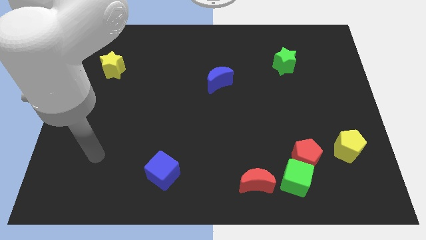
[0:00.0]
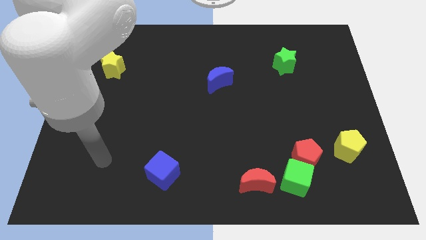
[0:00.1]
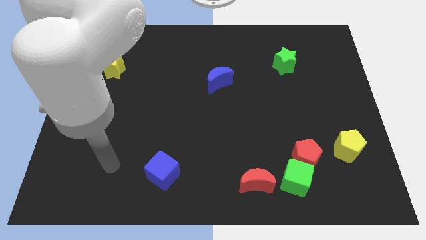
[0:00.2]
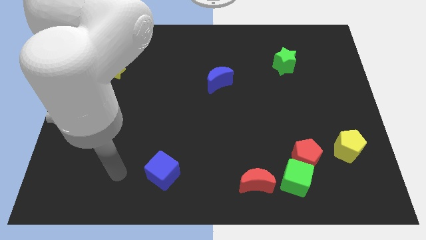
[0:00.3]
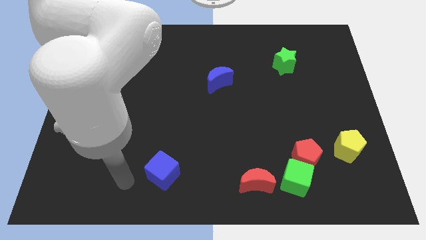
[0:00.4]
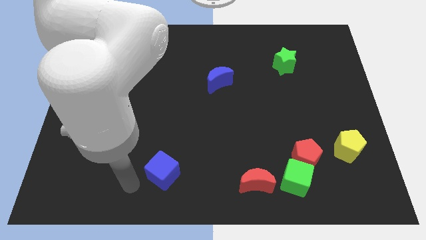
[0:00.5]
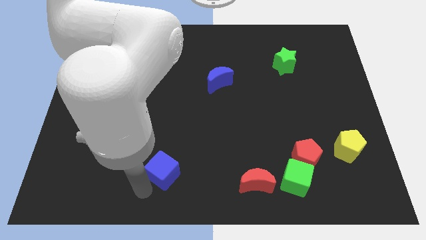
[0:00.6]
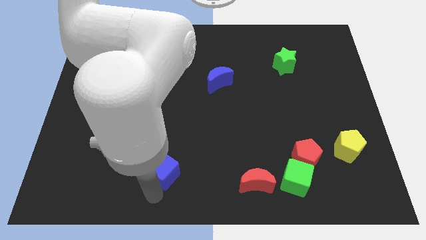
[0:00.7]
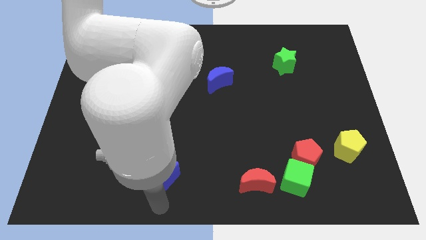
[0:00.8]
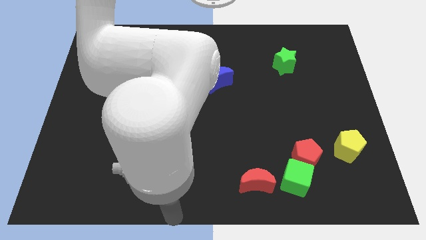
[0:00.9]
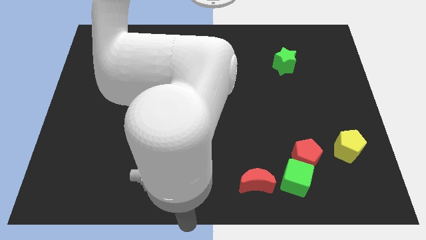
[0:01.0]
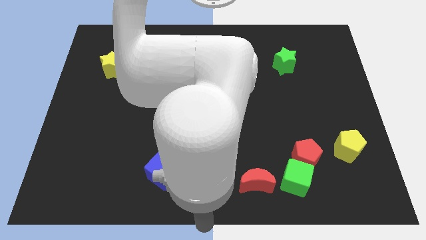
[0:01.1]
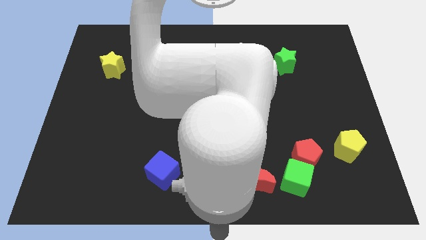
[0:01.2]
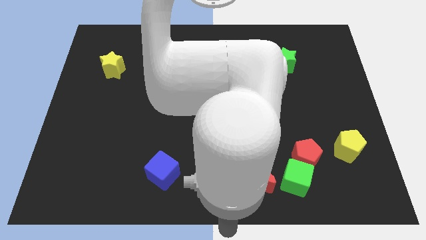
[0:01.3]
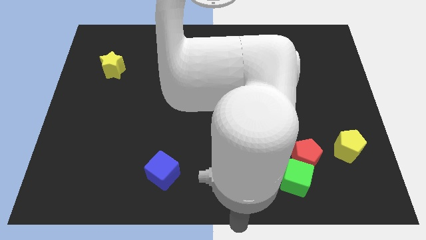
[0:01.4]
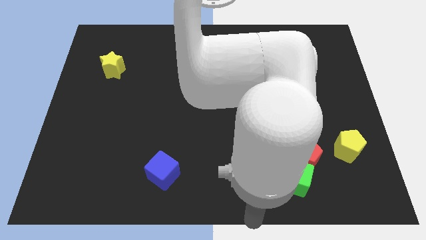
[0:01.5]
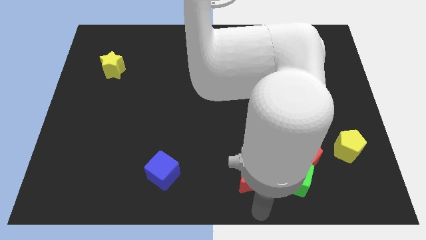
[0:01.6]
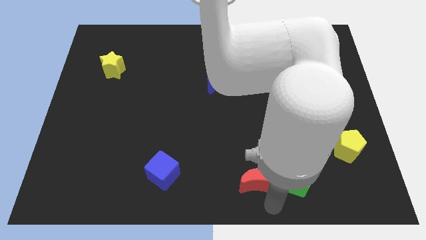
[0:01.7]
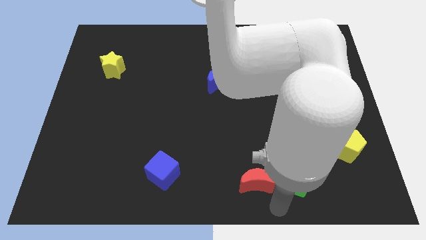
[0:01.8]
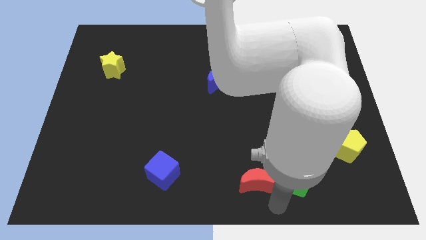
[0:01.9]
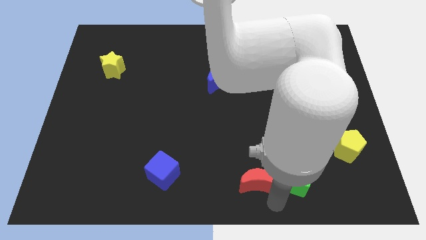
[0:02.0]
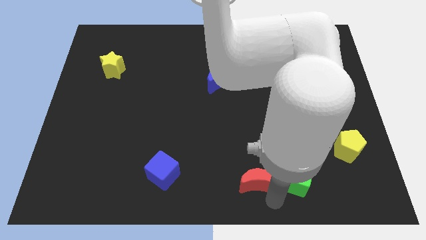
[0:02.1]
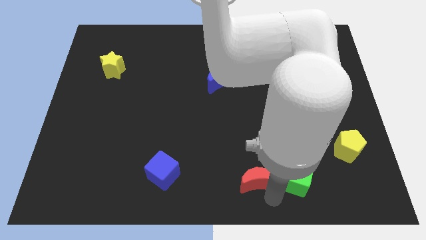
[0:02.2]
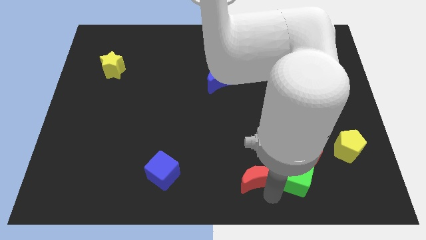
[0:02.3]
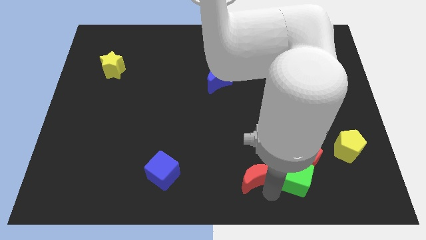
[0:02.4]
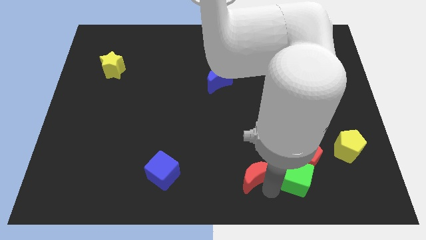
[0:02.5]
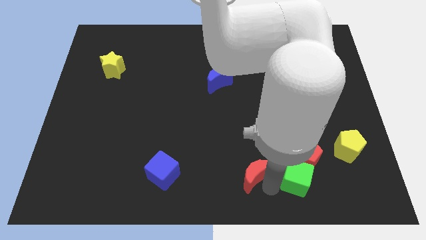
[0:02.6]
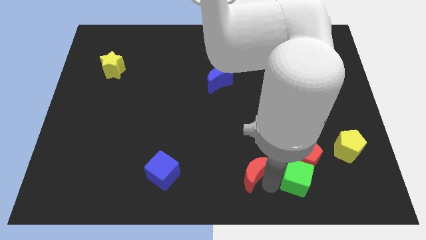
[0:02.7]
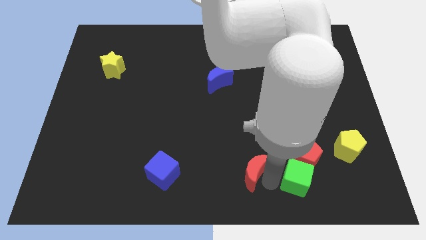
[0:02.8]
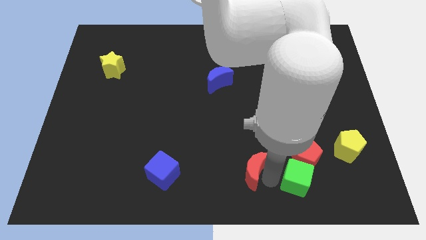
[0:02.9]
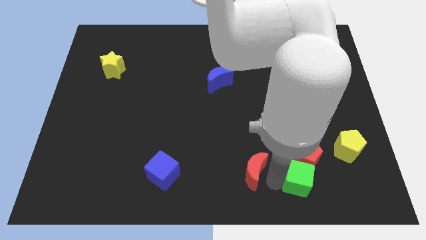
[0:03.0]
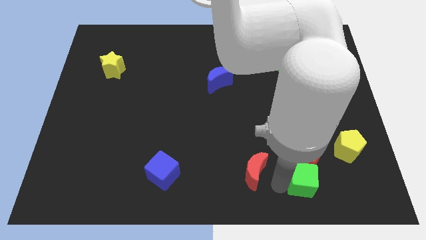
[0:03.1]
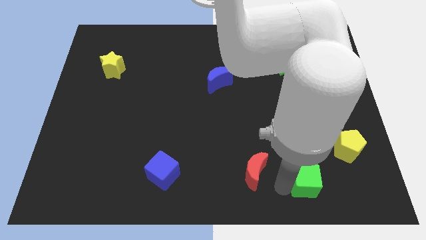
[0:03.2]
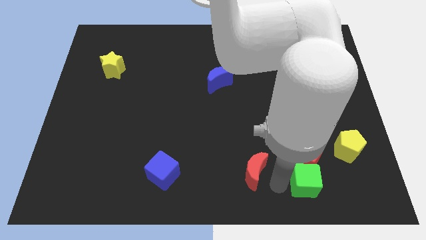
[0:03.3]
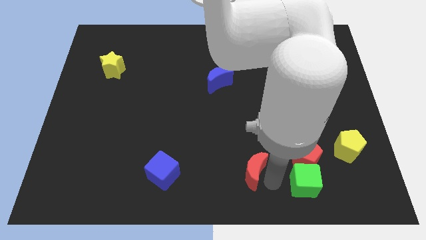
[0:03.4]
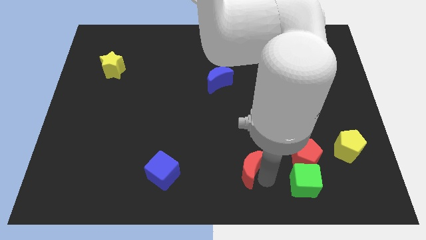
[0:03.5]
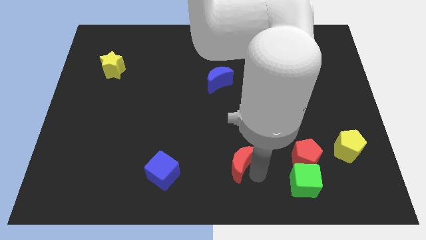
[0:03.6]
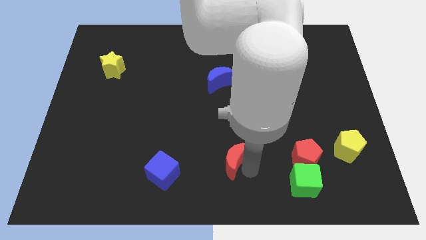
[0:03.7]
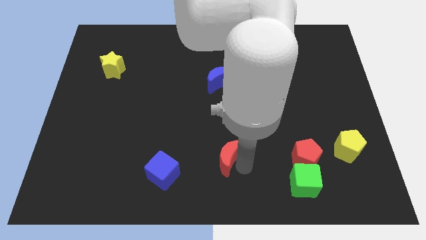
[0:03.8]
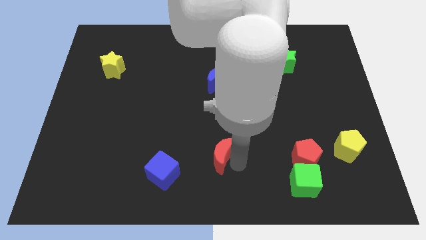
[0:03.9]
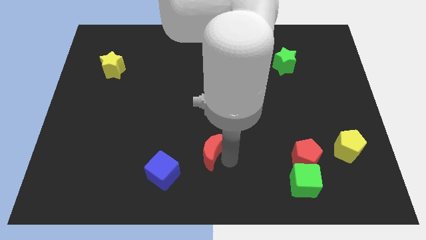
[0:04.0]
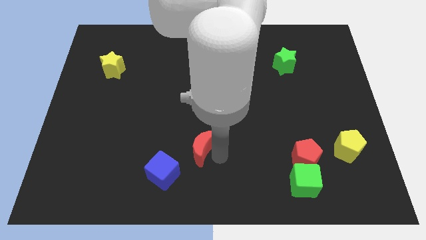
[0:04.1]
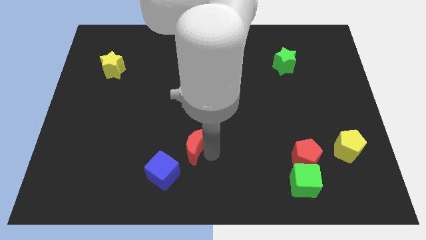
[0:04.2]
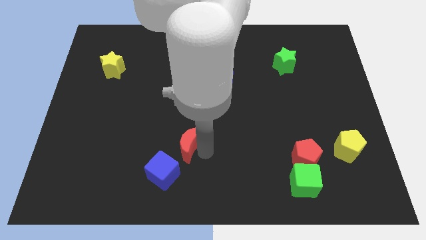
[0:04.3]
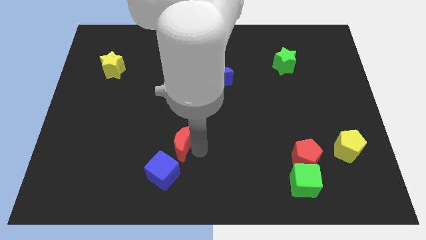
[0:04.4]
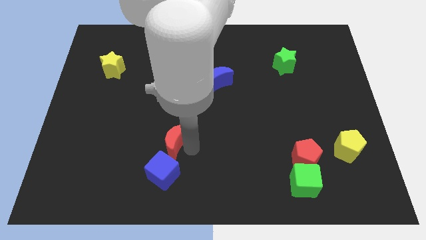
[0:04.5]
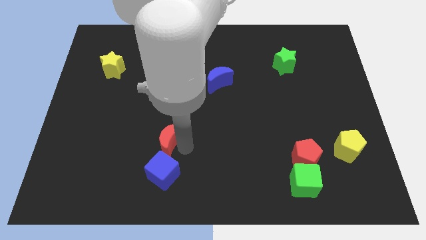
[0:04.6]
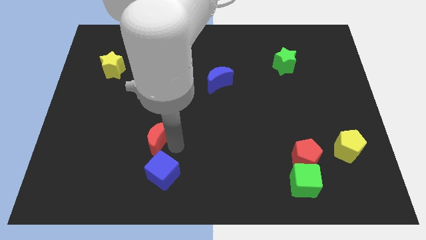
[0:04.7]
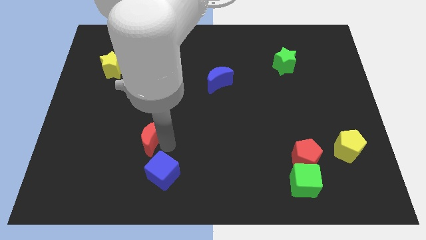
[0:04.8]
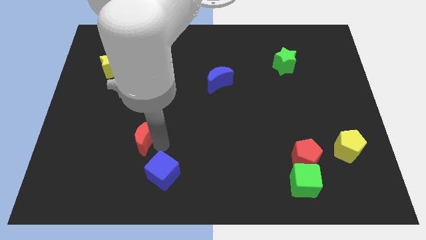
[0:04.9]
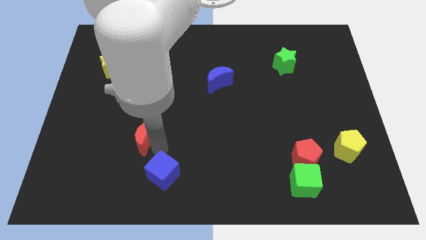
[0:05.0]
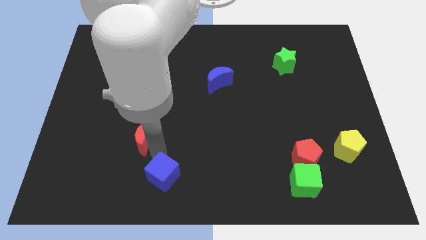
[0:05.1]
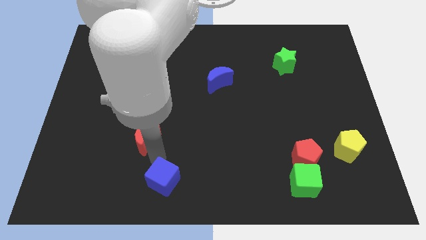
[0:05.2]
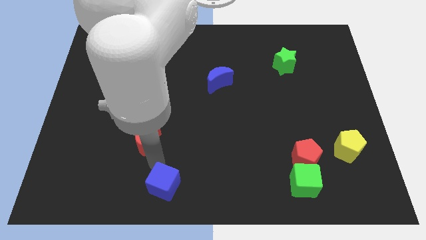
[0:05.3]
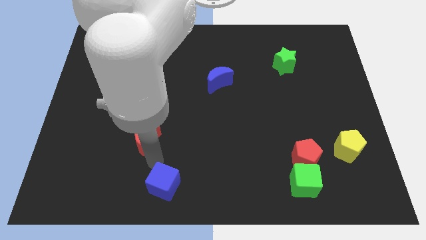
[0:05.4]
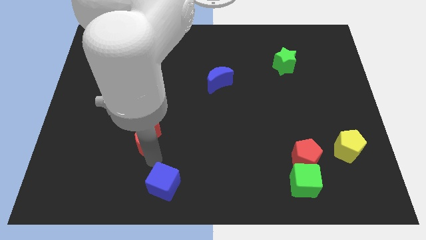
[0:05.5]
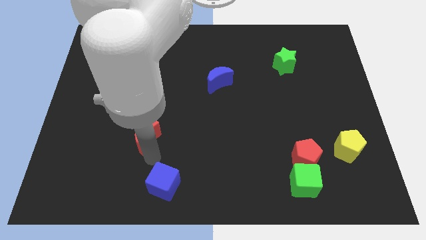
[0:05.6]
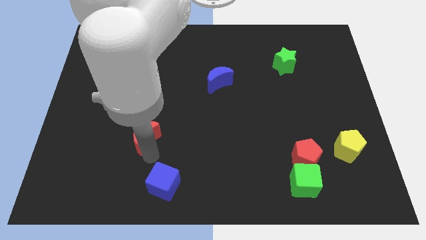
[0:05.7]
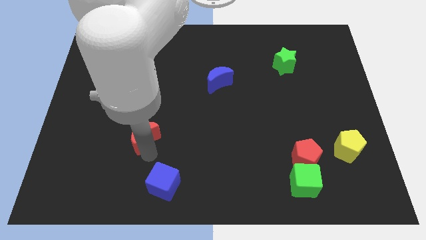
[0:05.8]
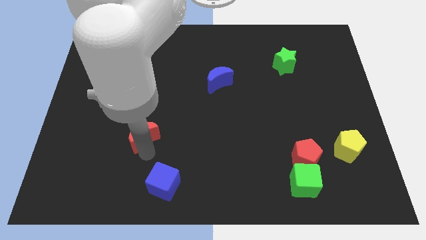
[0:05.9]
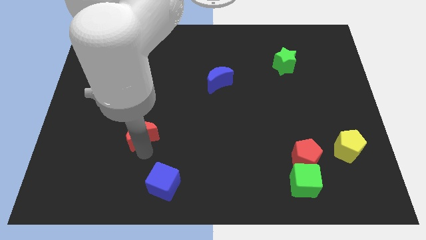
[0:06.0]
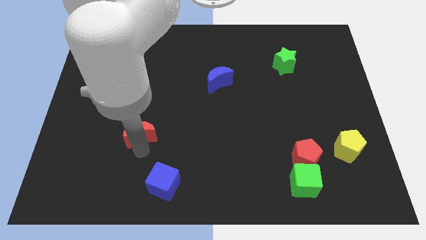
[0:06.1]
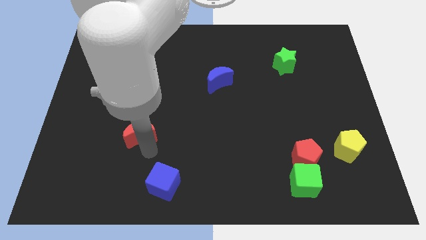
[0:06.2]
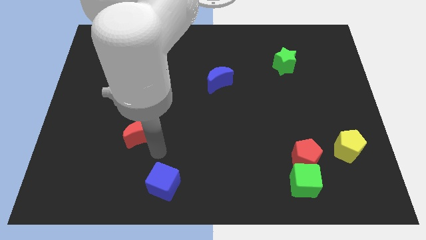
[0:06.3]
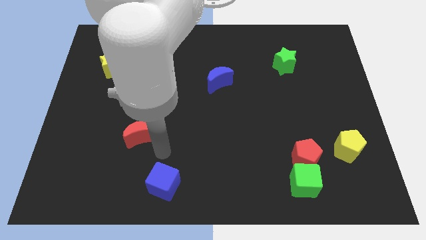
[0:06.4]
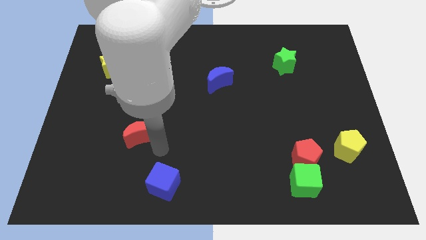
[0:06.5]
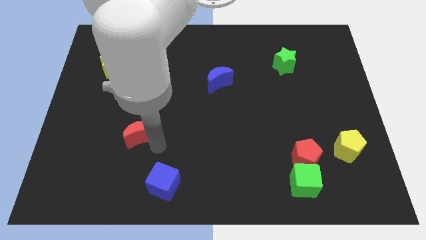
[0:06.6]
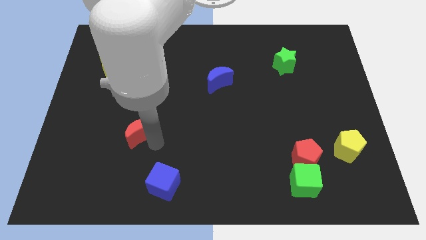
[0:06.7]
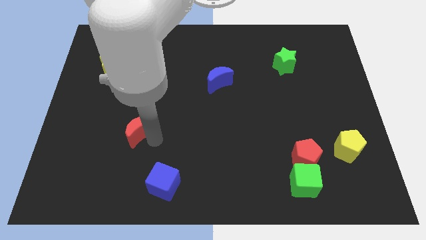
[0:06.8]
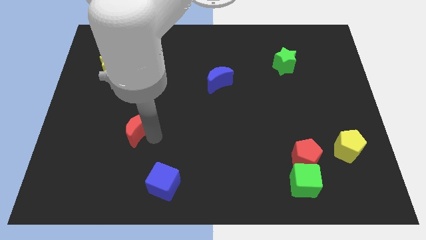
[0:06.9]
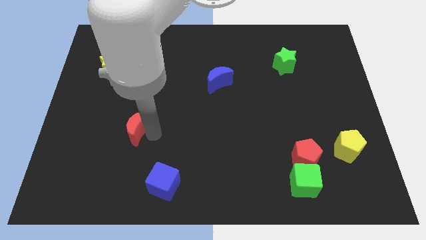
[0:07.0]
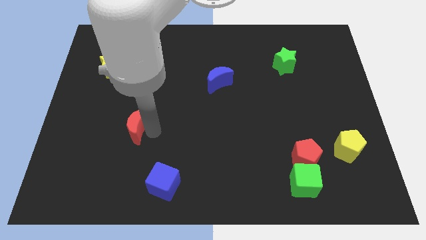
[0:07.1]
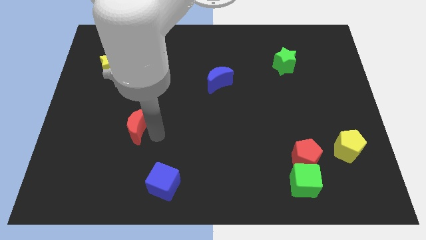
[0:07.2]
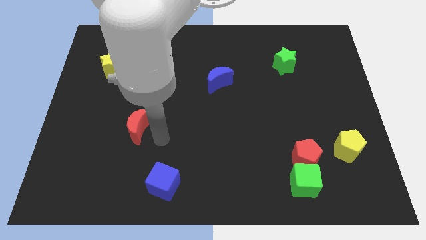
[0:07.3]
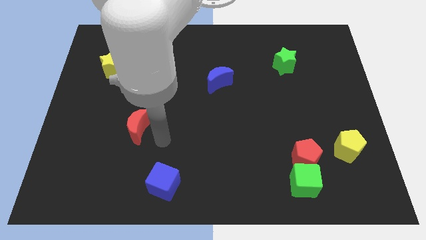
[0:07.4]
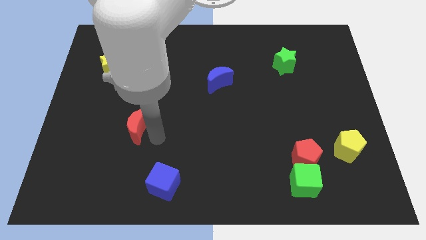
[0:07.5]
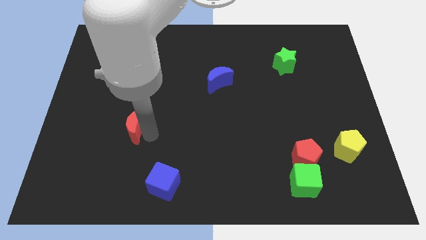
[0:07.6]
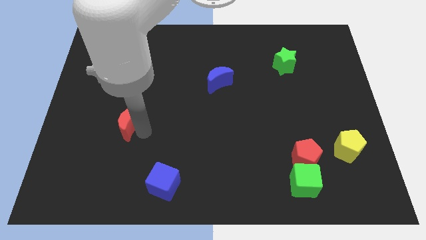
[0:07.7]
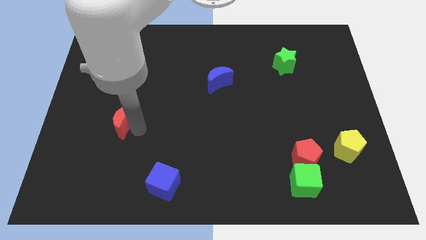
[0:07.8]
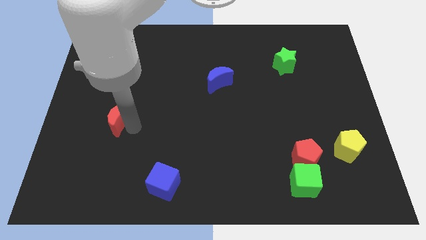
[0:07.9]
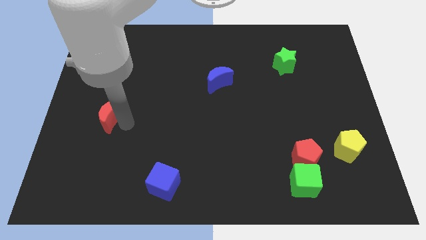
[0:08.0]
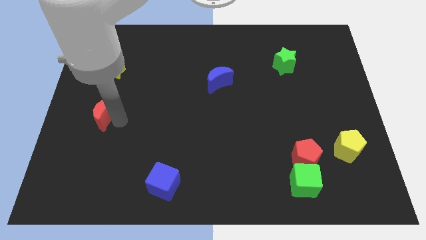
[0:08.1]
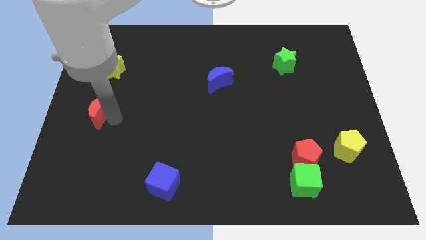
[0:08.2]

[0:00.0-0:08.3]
put the red moon to the center left
